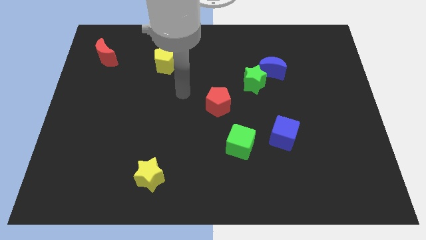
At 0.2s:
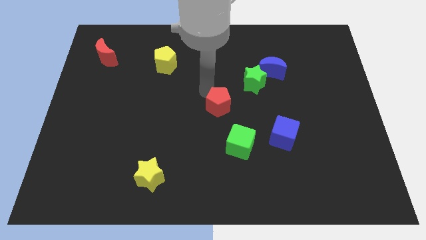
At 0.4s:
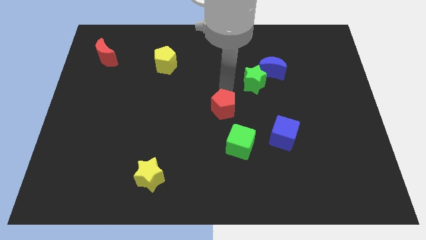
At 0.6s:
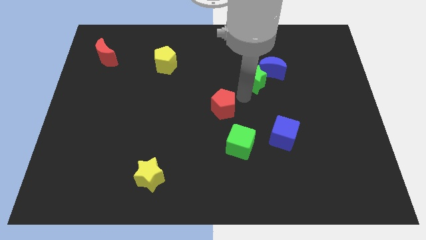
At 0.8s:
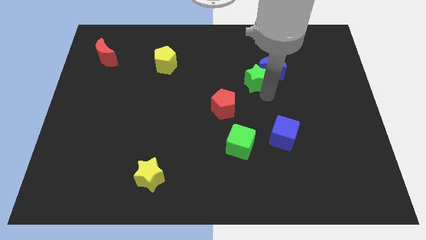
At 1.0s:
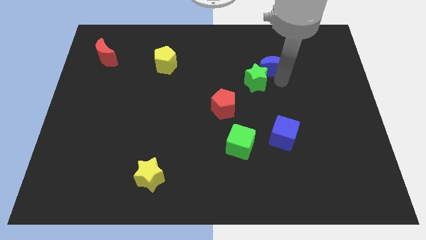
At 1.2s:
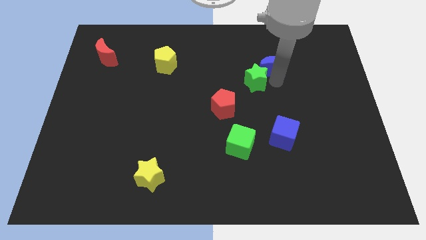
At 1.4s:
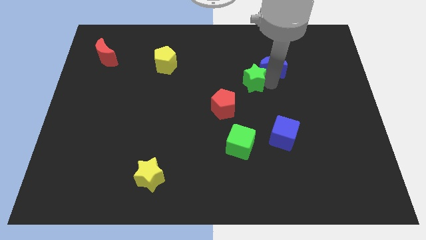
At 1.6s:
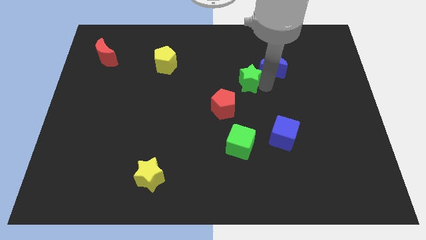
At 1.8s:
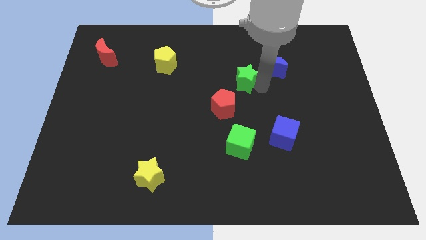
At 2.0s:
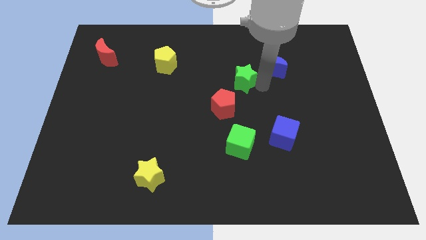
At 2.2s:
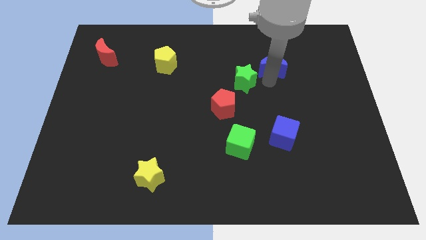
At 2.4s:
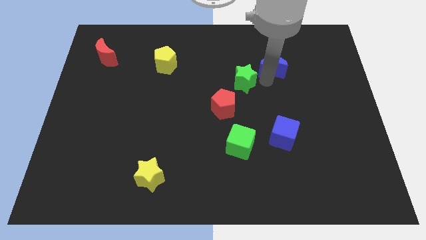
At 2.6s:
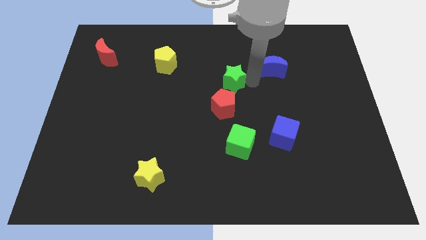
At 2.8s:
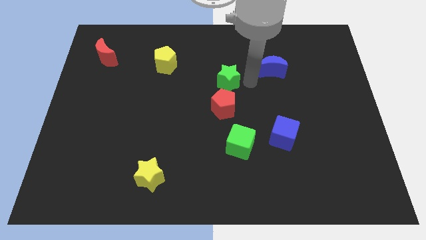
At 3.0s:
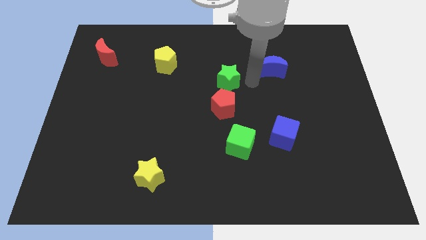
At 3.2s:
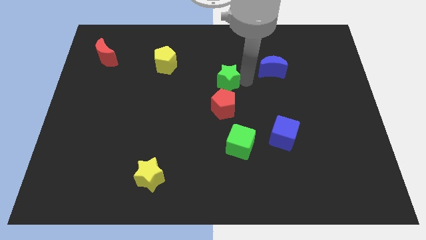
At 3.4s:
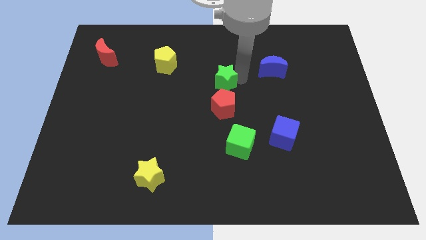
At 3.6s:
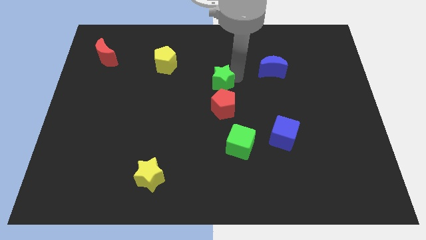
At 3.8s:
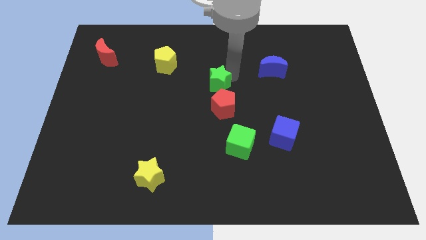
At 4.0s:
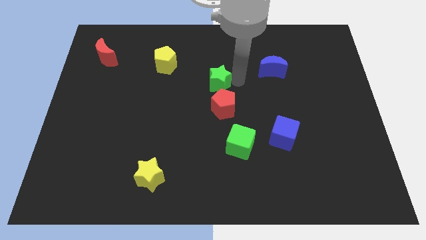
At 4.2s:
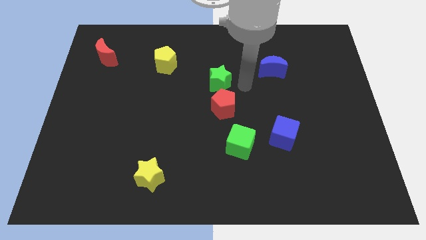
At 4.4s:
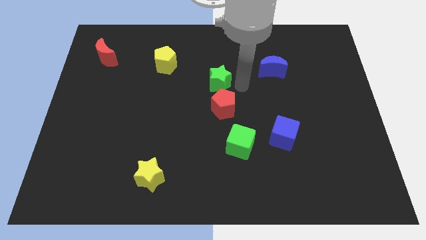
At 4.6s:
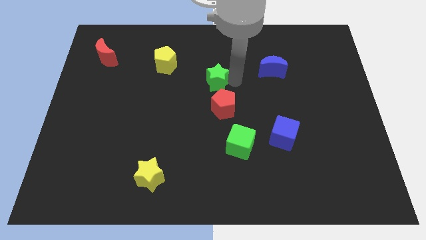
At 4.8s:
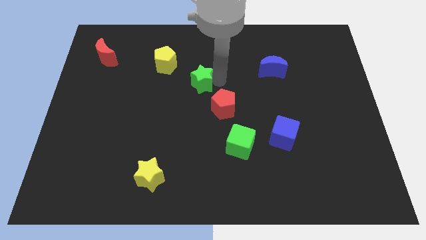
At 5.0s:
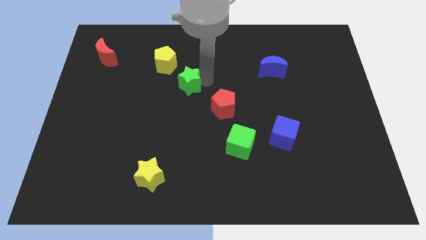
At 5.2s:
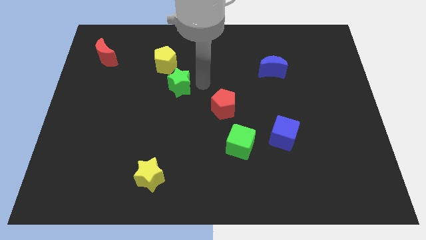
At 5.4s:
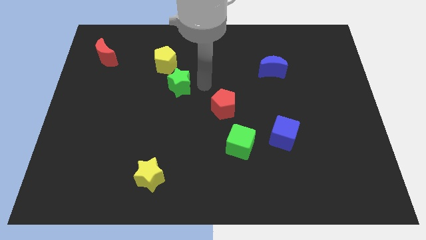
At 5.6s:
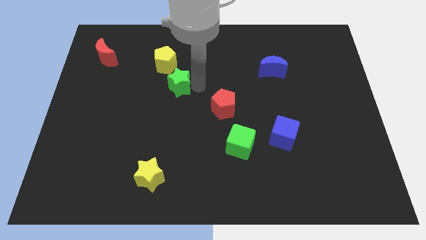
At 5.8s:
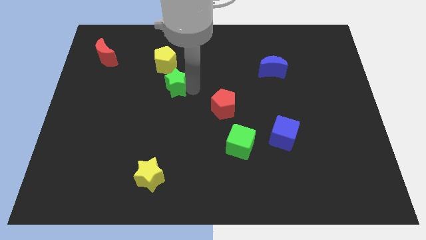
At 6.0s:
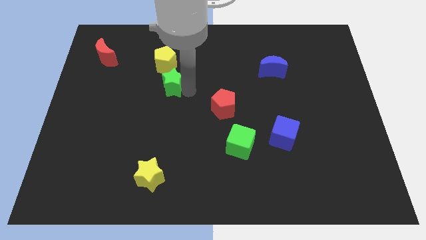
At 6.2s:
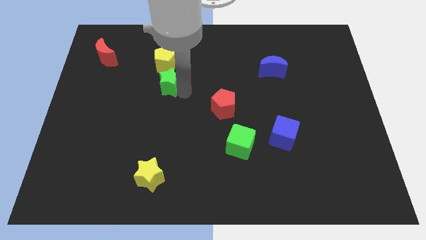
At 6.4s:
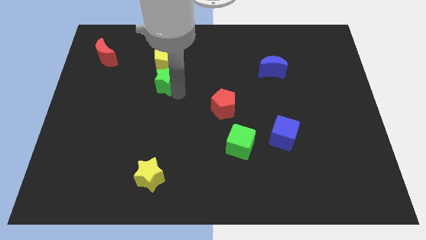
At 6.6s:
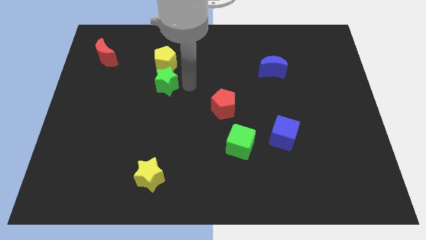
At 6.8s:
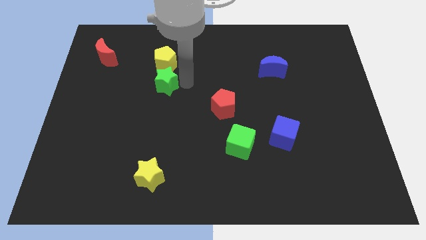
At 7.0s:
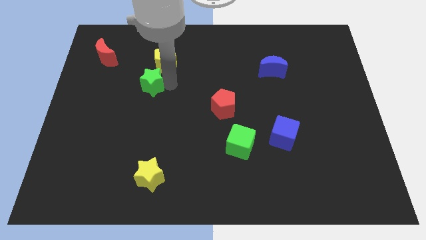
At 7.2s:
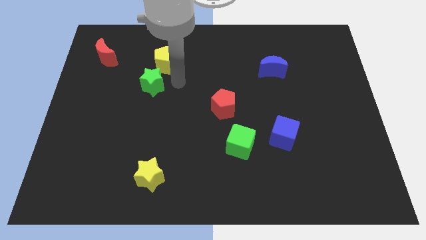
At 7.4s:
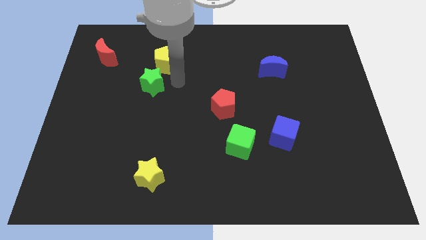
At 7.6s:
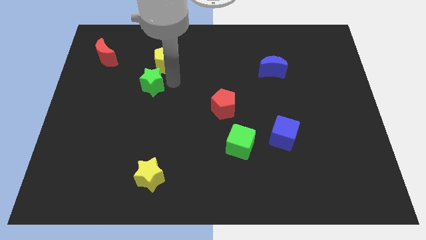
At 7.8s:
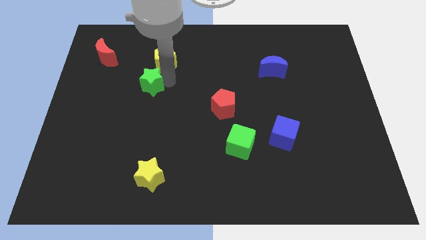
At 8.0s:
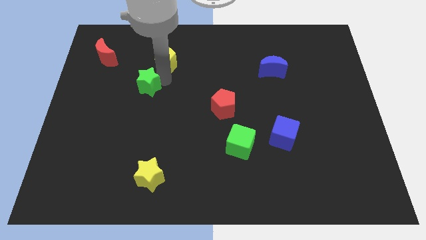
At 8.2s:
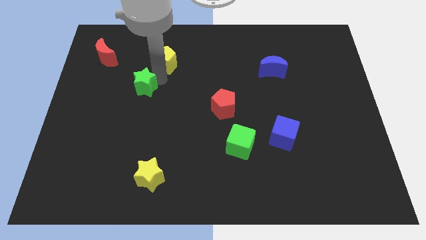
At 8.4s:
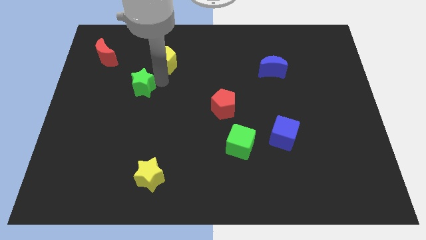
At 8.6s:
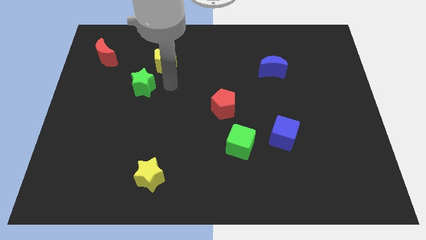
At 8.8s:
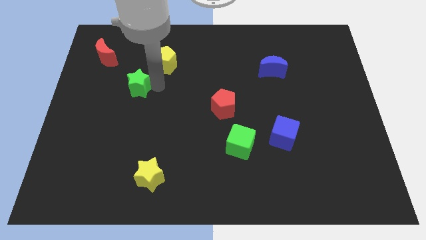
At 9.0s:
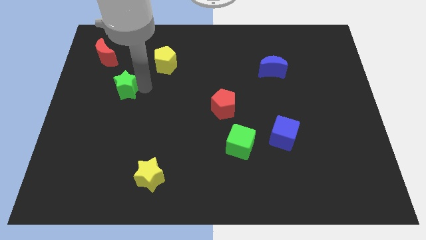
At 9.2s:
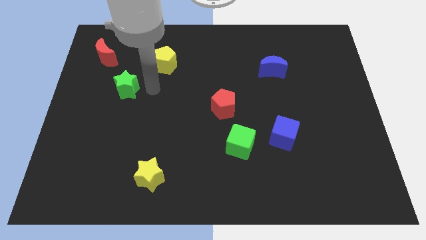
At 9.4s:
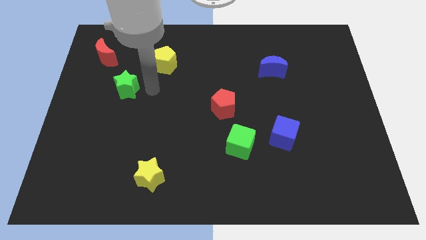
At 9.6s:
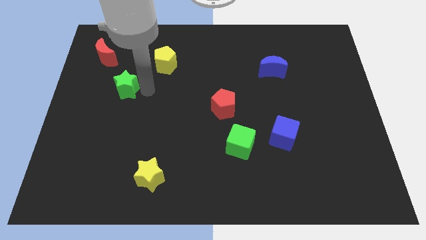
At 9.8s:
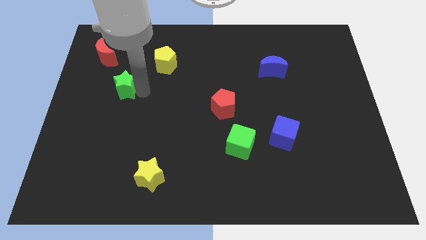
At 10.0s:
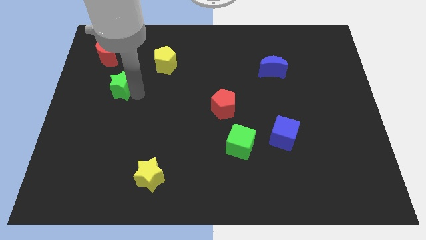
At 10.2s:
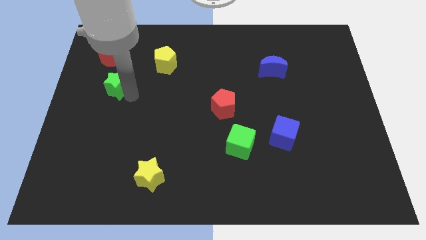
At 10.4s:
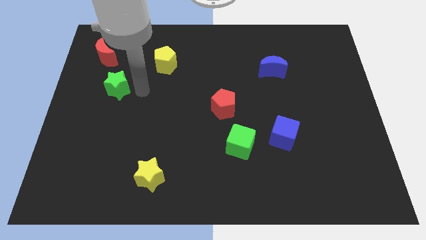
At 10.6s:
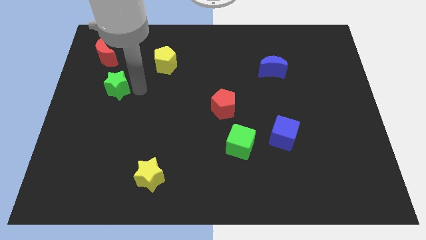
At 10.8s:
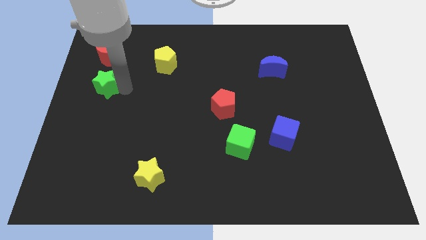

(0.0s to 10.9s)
put the green star to the center left
